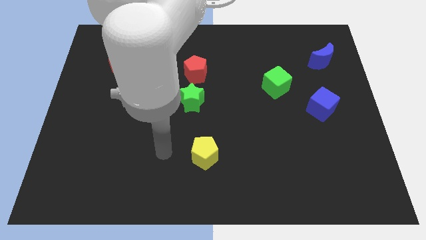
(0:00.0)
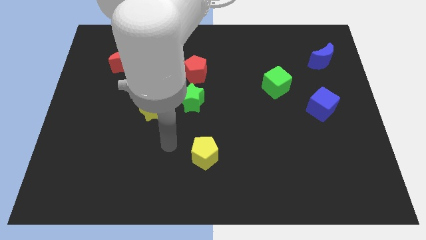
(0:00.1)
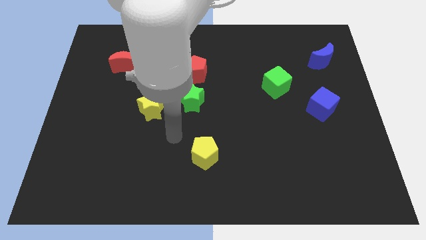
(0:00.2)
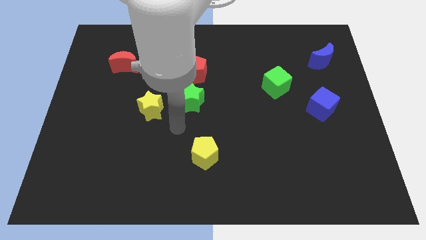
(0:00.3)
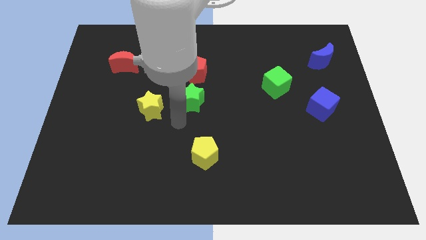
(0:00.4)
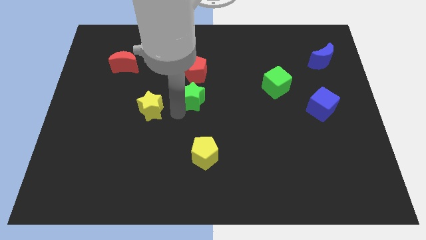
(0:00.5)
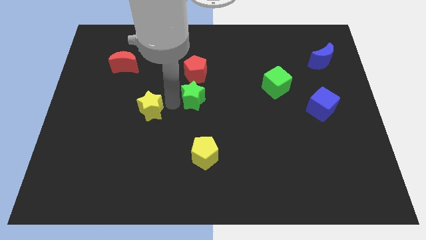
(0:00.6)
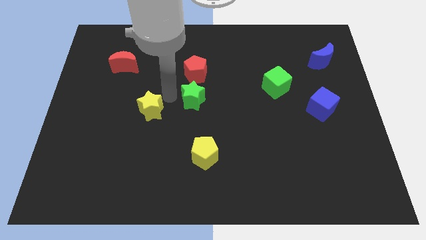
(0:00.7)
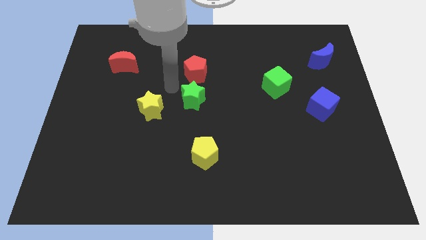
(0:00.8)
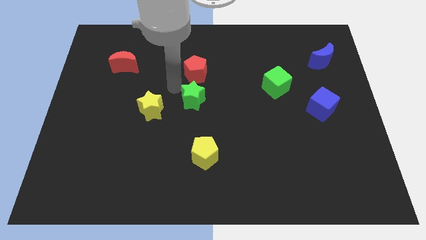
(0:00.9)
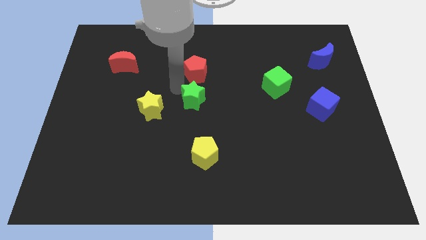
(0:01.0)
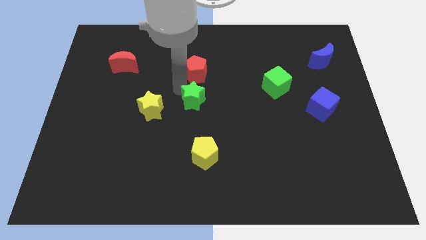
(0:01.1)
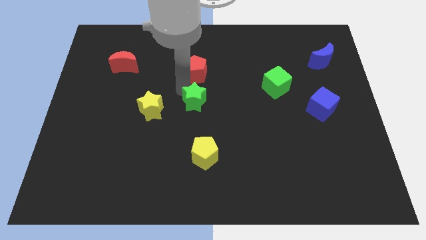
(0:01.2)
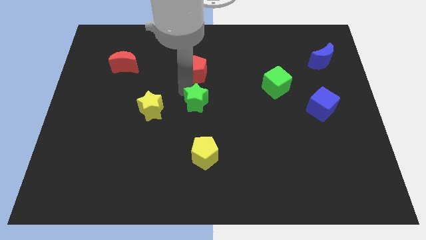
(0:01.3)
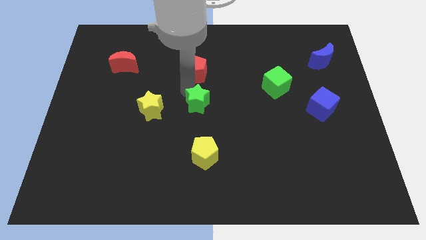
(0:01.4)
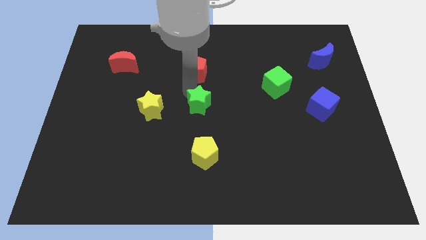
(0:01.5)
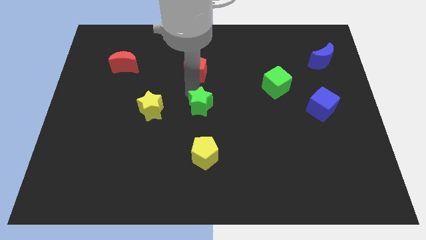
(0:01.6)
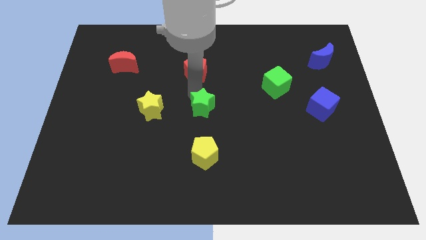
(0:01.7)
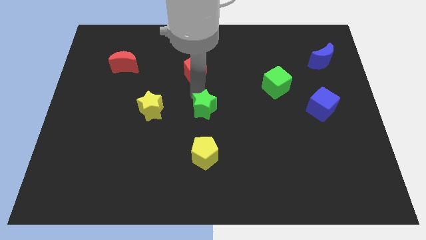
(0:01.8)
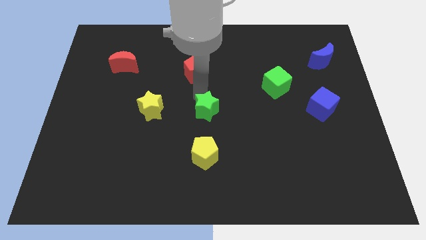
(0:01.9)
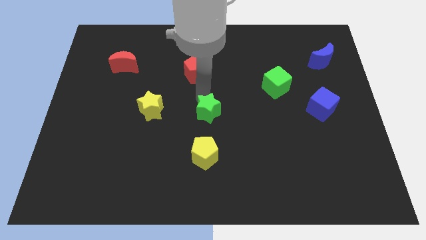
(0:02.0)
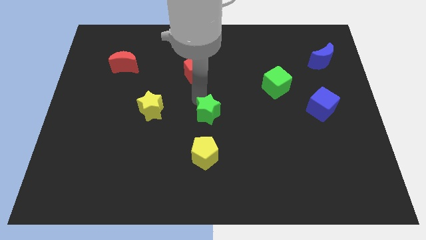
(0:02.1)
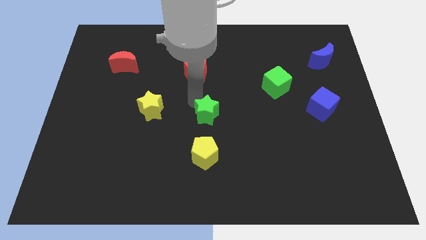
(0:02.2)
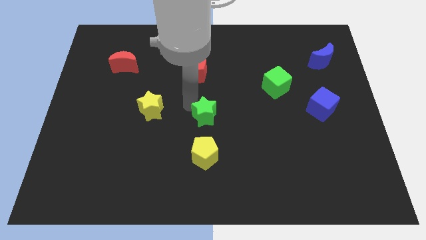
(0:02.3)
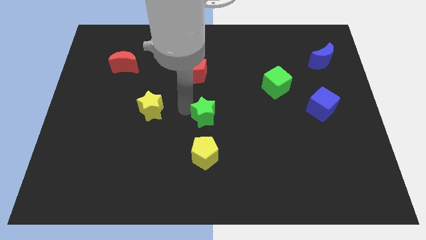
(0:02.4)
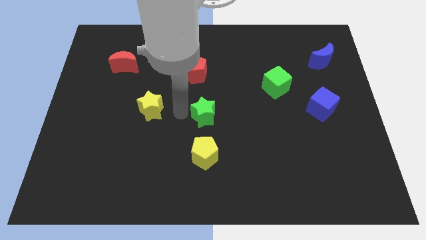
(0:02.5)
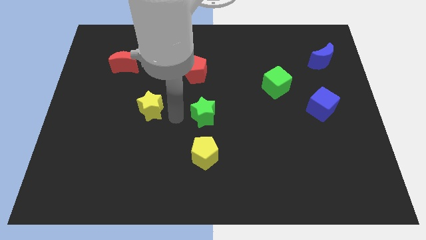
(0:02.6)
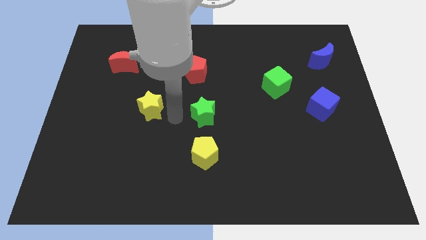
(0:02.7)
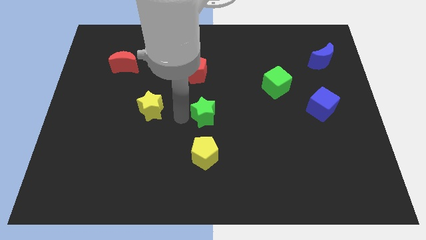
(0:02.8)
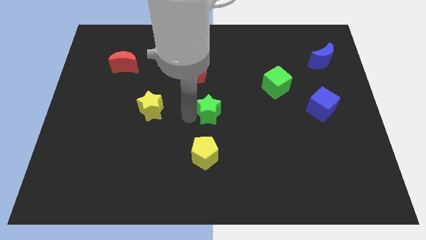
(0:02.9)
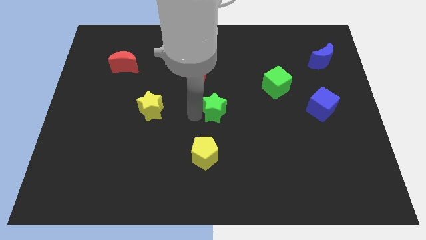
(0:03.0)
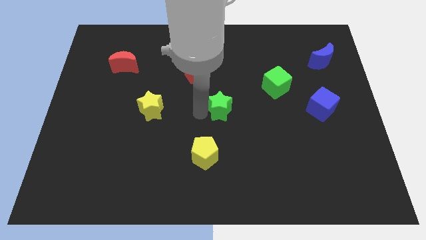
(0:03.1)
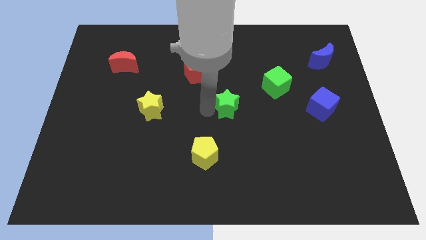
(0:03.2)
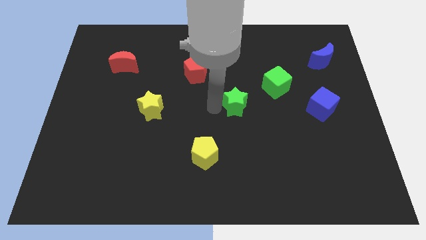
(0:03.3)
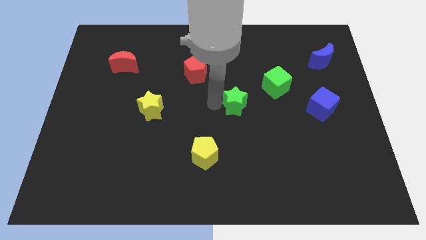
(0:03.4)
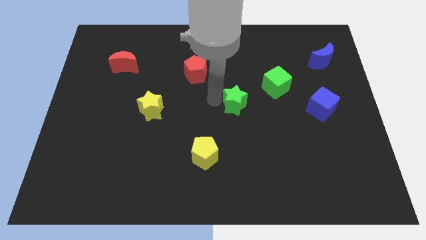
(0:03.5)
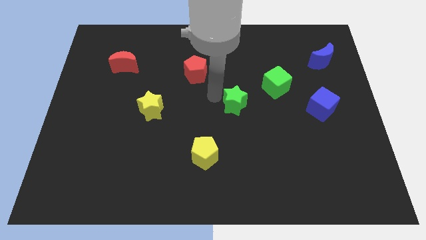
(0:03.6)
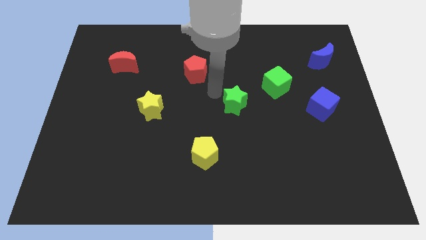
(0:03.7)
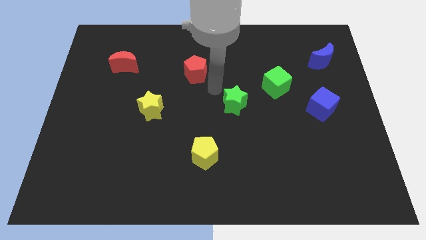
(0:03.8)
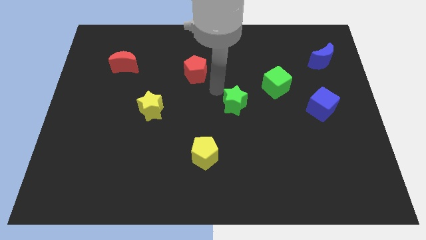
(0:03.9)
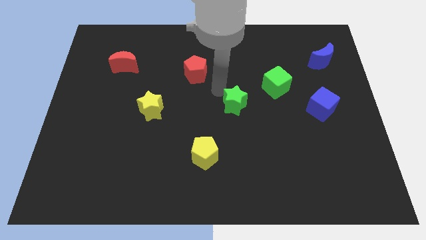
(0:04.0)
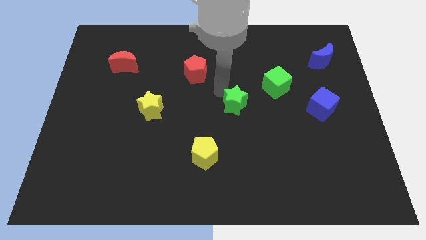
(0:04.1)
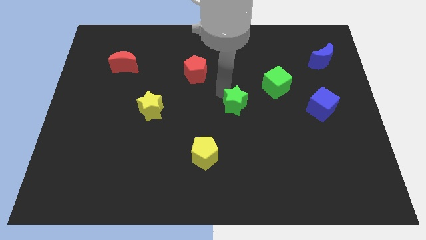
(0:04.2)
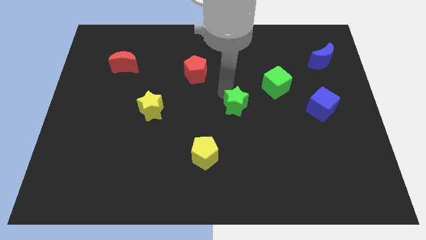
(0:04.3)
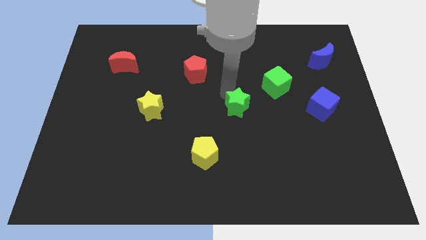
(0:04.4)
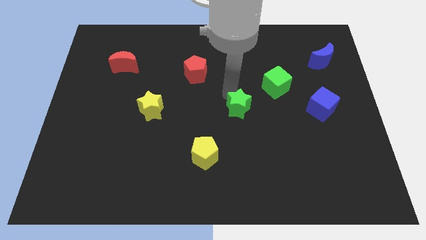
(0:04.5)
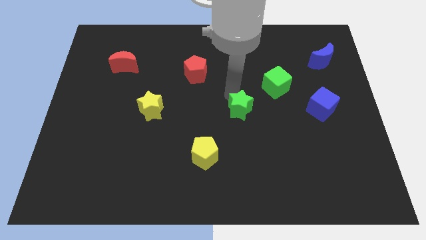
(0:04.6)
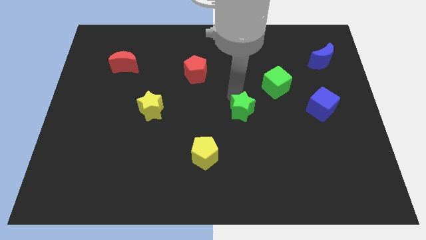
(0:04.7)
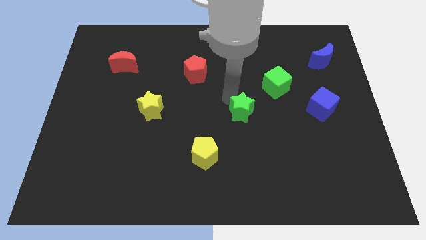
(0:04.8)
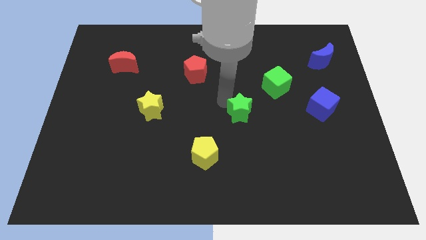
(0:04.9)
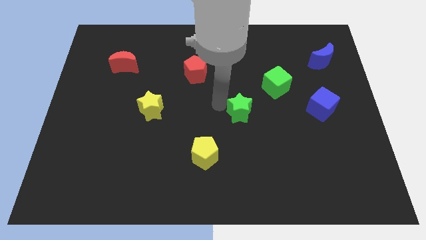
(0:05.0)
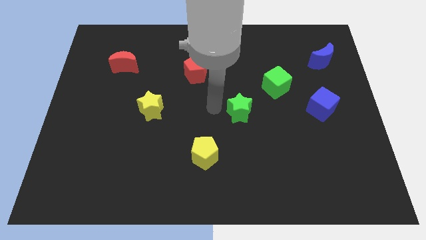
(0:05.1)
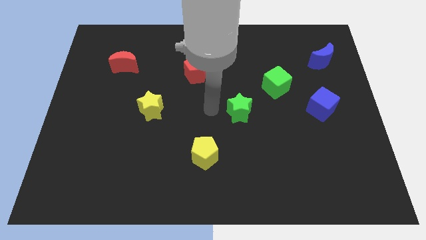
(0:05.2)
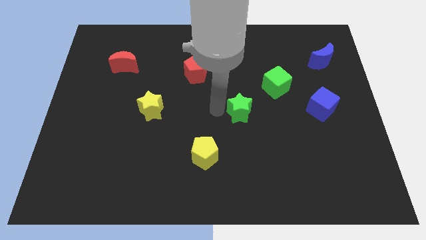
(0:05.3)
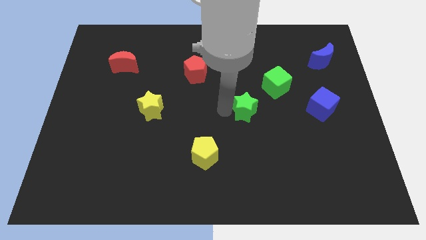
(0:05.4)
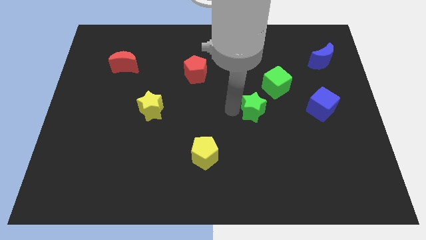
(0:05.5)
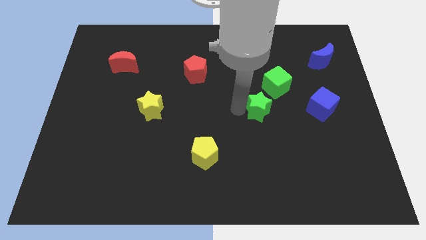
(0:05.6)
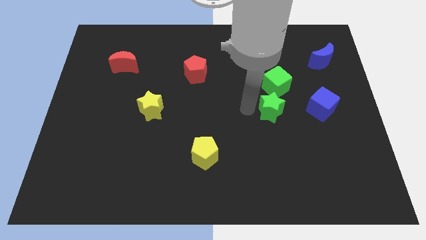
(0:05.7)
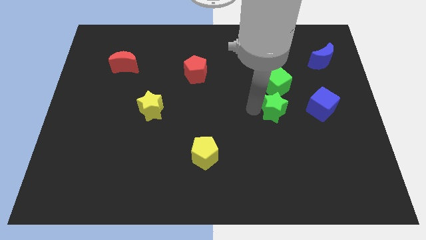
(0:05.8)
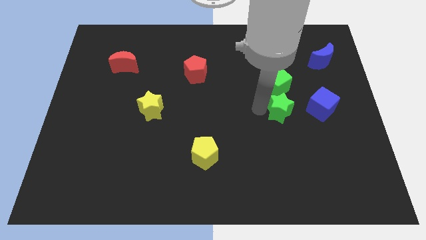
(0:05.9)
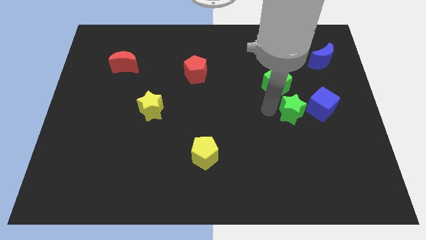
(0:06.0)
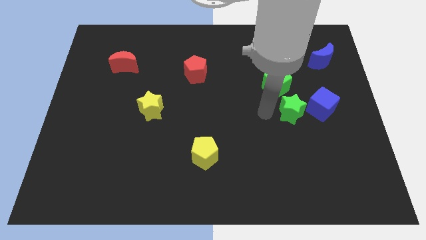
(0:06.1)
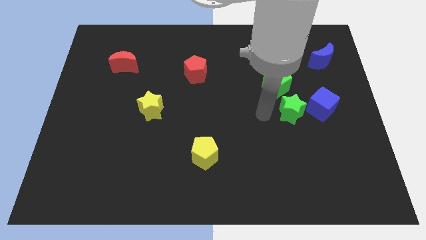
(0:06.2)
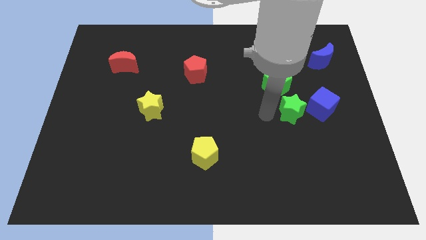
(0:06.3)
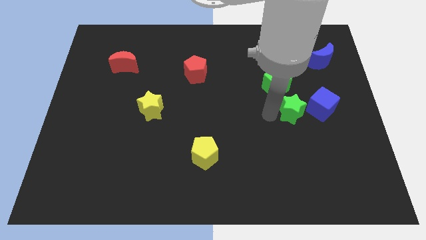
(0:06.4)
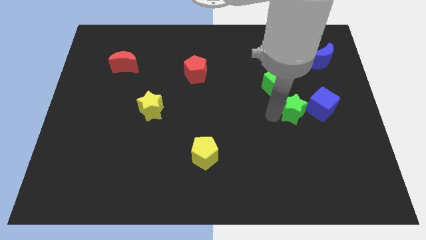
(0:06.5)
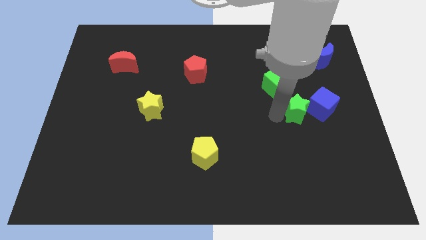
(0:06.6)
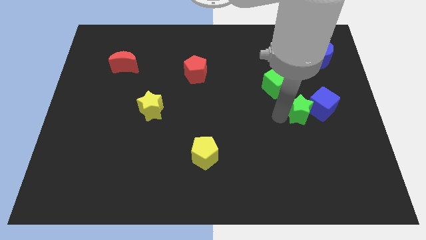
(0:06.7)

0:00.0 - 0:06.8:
move the green star towards the blue cube

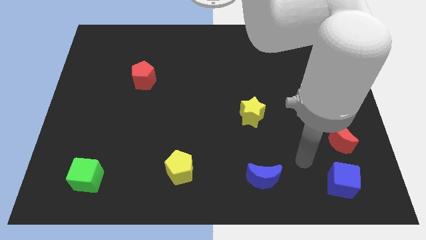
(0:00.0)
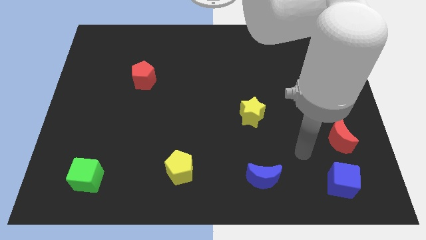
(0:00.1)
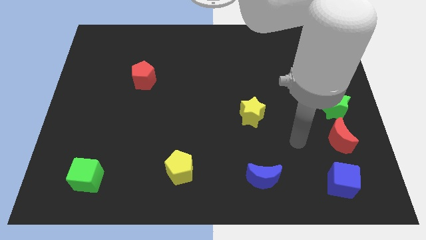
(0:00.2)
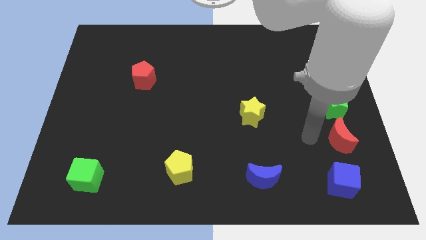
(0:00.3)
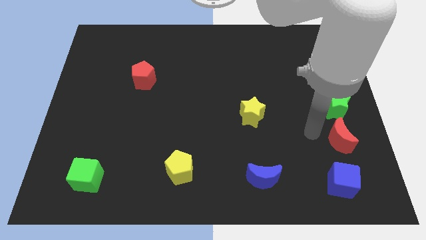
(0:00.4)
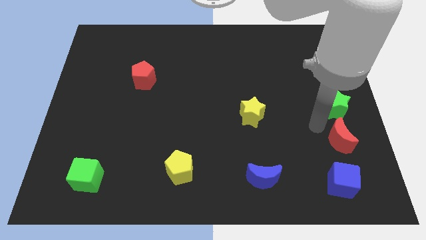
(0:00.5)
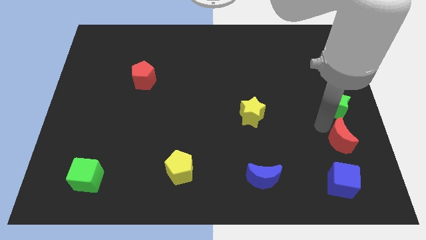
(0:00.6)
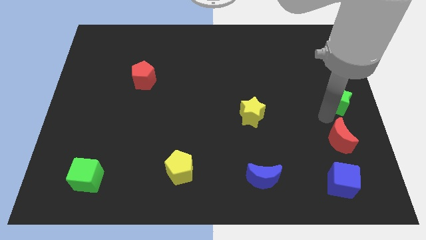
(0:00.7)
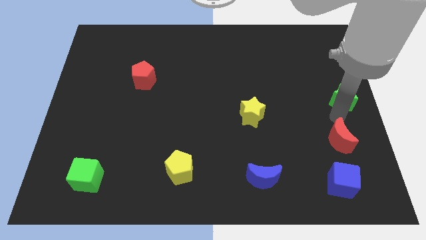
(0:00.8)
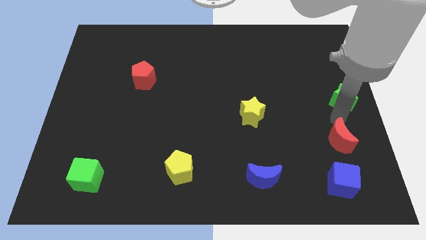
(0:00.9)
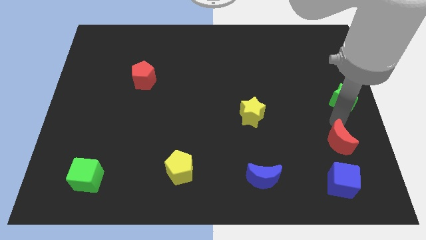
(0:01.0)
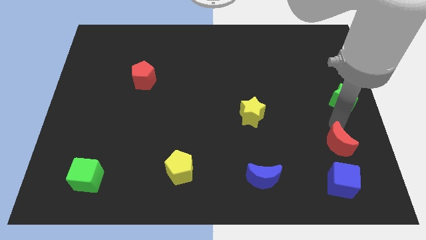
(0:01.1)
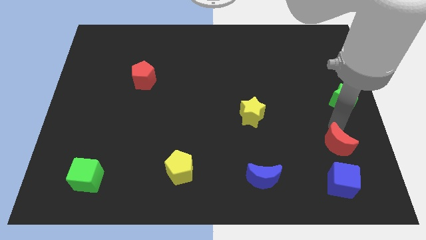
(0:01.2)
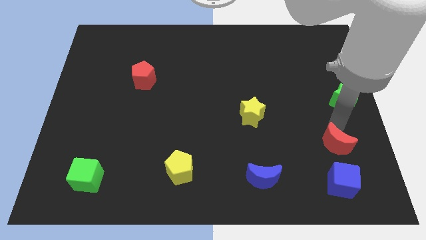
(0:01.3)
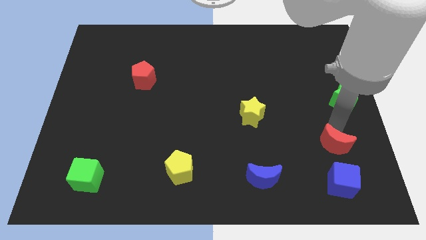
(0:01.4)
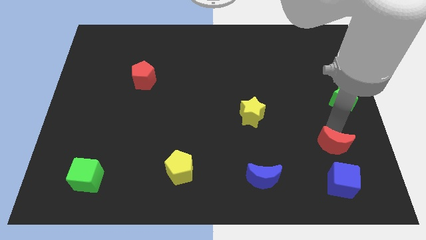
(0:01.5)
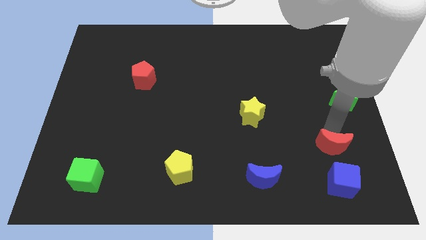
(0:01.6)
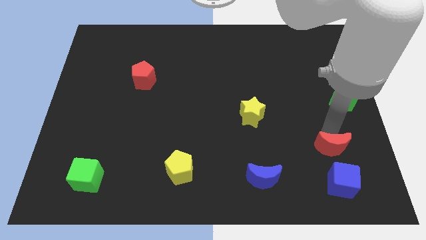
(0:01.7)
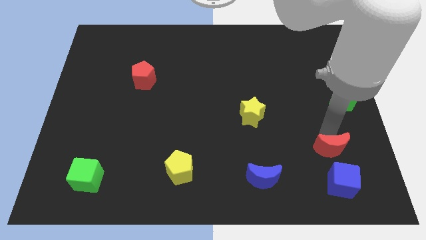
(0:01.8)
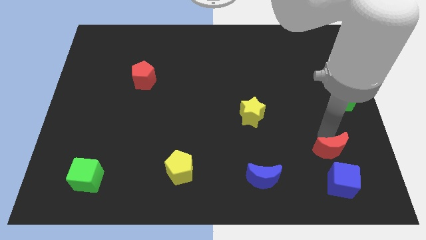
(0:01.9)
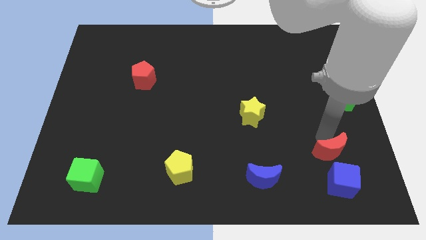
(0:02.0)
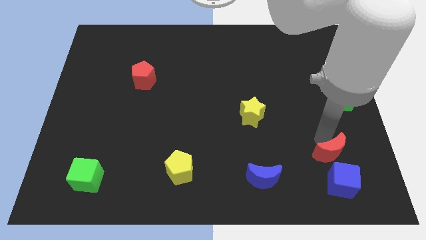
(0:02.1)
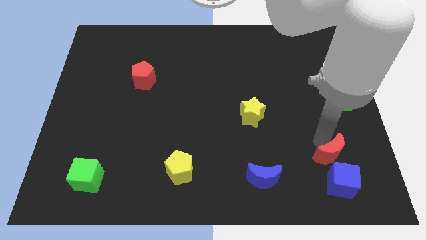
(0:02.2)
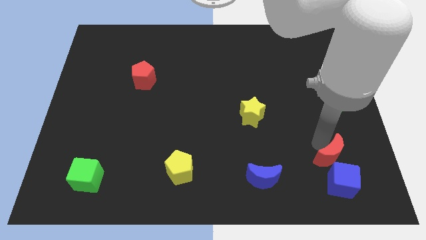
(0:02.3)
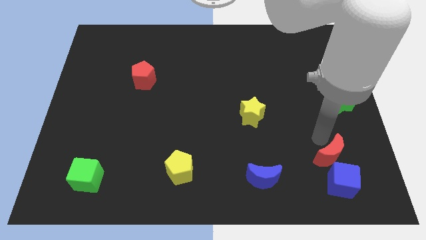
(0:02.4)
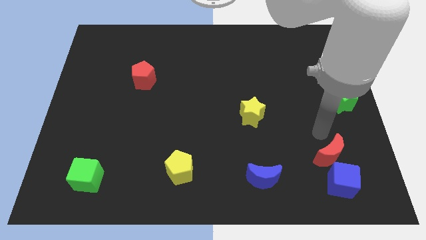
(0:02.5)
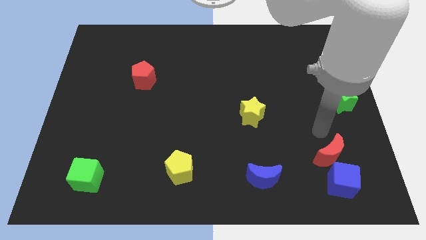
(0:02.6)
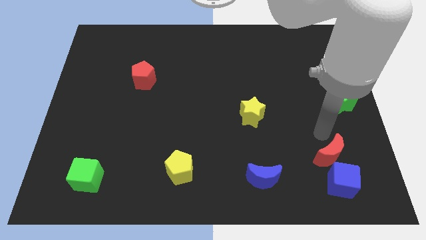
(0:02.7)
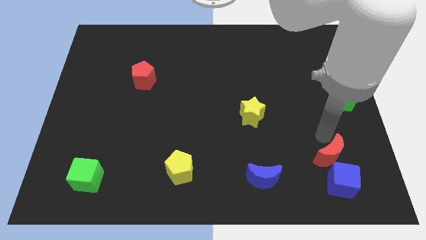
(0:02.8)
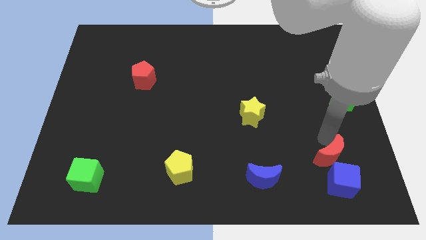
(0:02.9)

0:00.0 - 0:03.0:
move the red moon towards the blue cube
